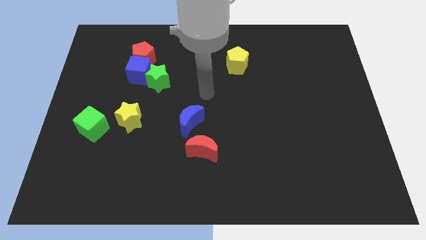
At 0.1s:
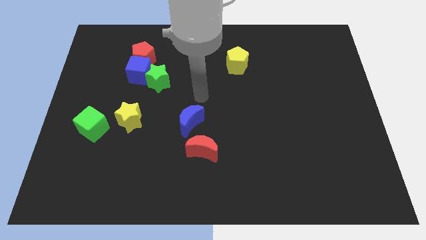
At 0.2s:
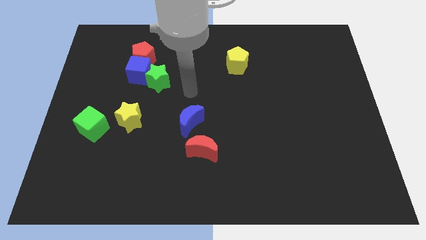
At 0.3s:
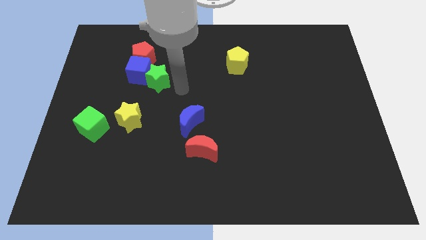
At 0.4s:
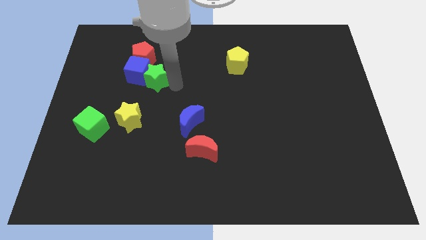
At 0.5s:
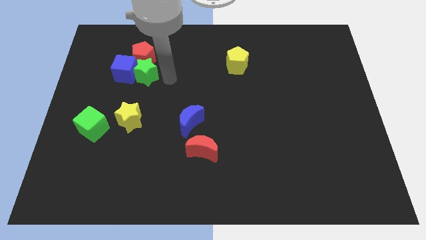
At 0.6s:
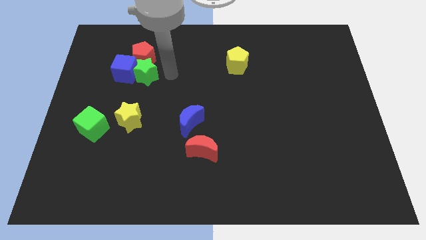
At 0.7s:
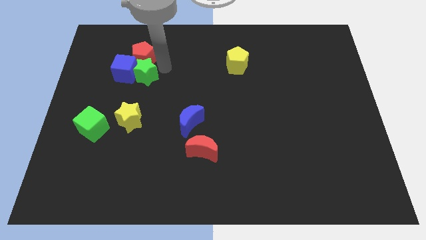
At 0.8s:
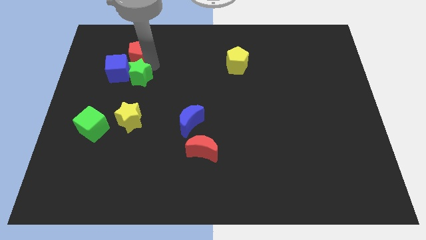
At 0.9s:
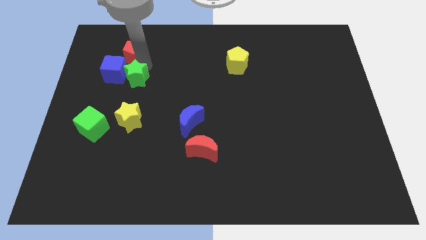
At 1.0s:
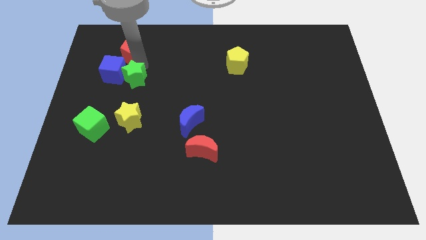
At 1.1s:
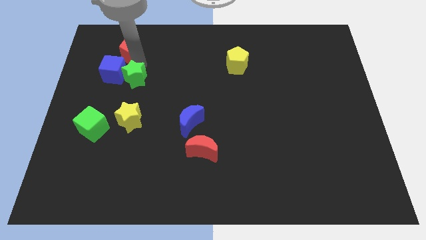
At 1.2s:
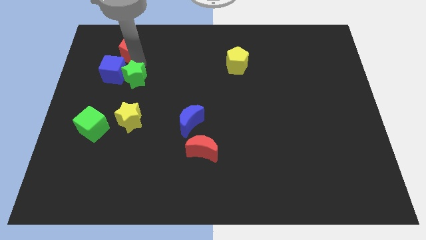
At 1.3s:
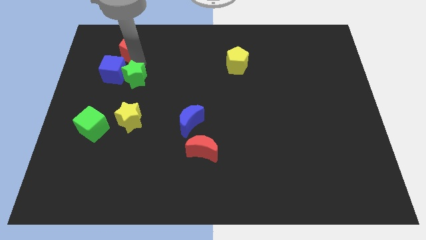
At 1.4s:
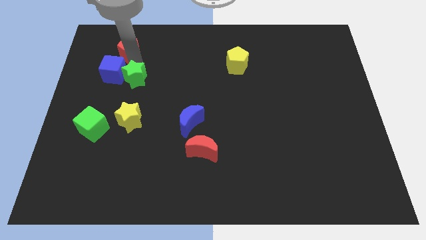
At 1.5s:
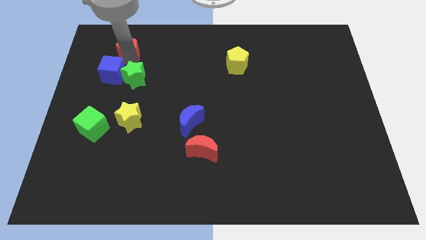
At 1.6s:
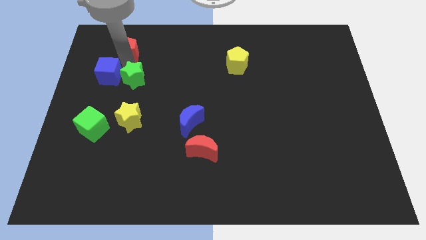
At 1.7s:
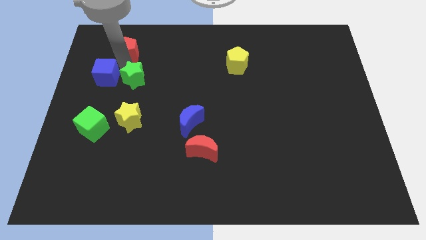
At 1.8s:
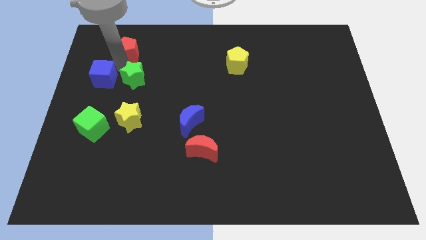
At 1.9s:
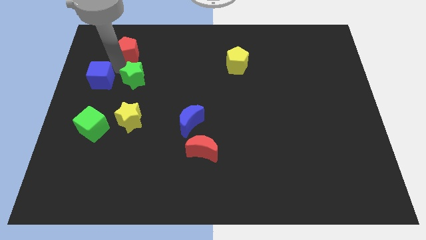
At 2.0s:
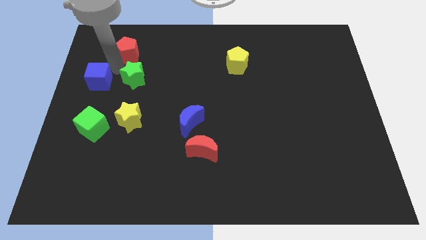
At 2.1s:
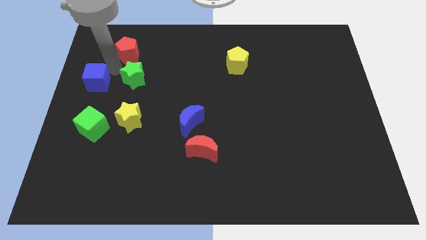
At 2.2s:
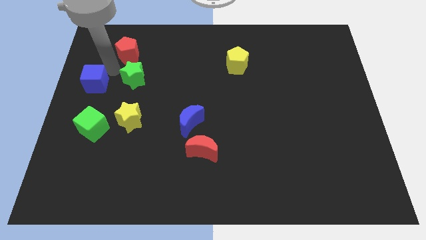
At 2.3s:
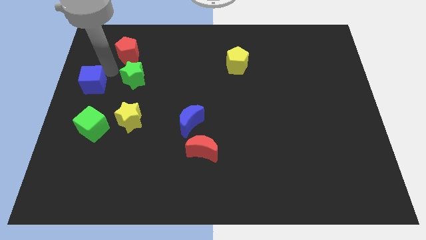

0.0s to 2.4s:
separate the blue cube from the red pentagon and green star

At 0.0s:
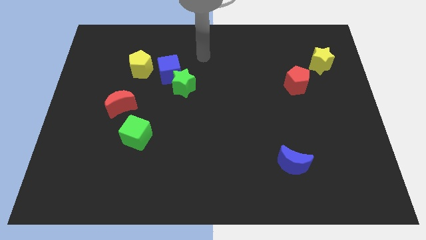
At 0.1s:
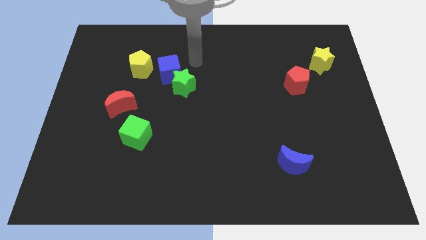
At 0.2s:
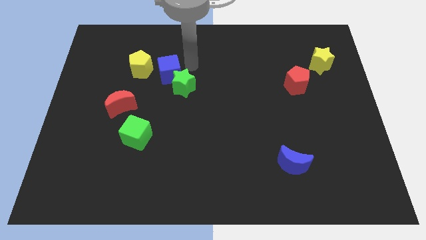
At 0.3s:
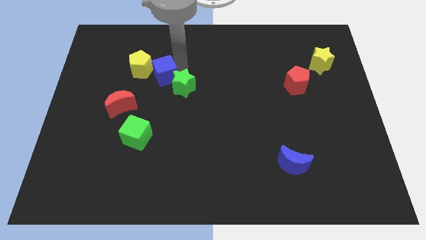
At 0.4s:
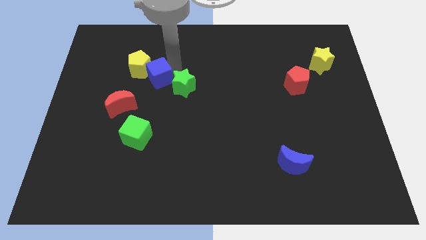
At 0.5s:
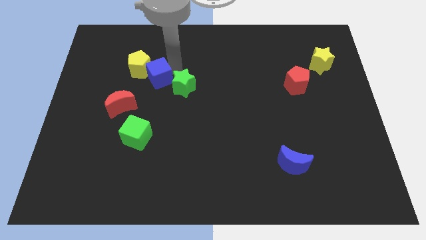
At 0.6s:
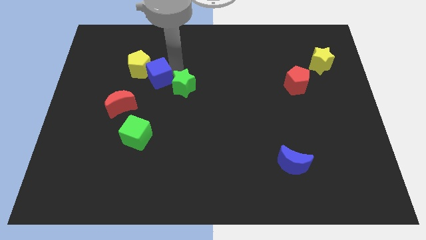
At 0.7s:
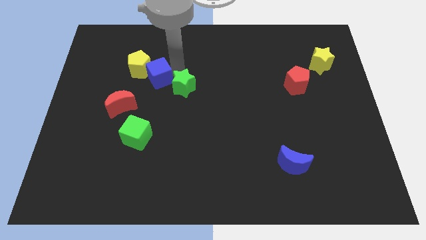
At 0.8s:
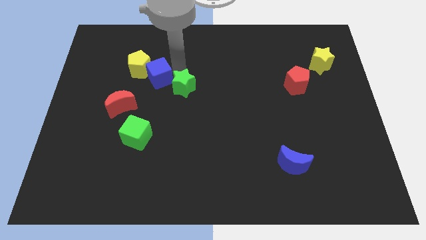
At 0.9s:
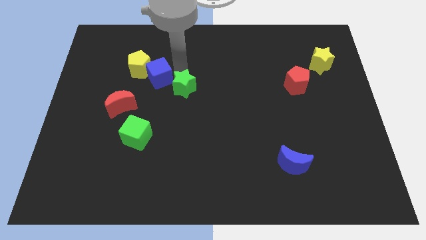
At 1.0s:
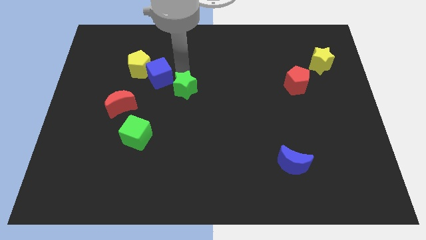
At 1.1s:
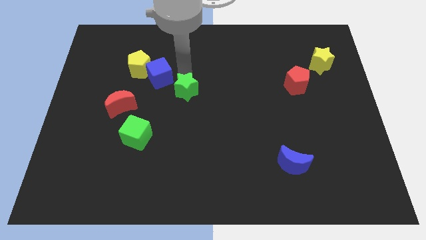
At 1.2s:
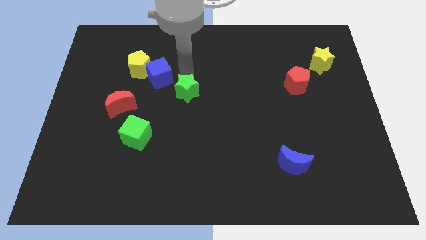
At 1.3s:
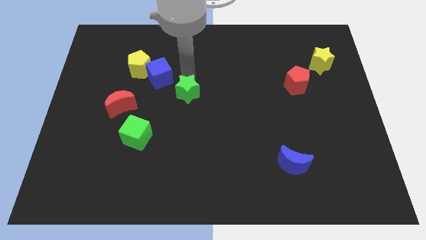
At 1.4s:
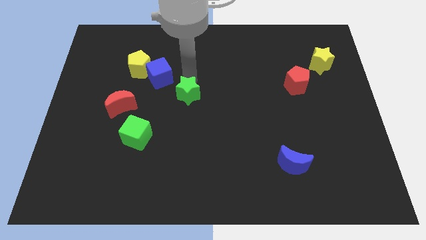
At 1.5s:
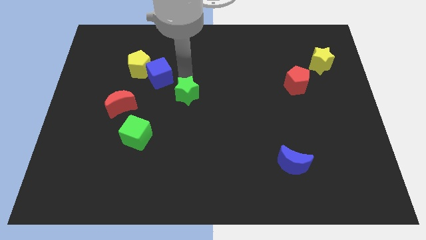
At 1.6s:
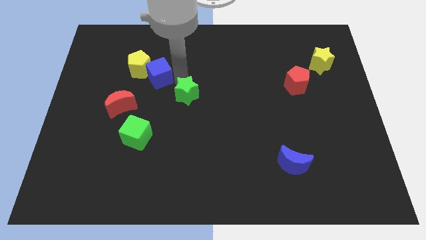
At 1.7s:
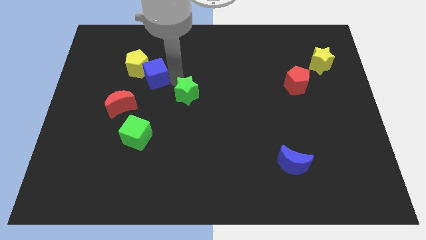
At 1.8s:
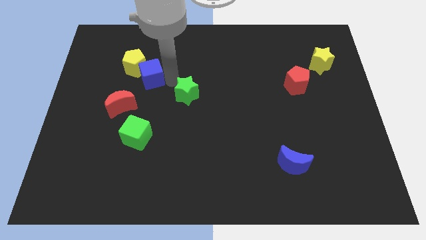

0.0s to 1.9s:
separate the green star from the blue cube

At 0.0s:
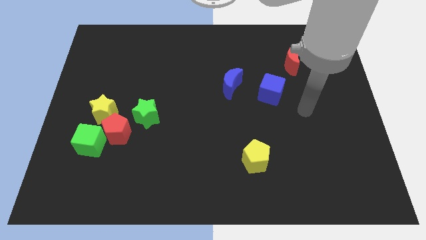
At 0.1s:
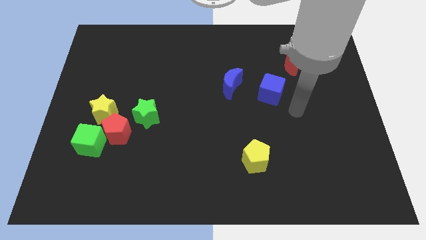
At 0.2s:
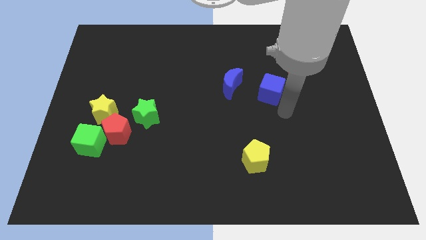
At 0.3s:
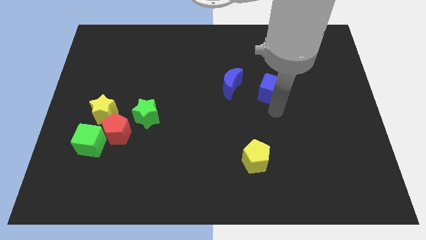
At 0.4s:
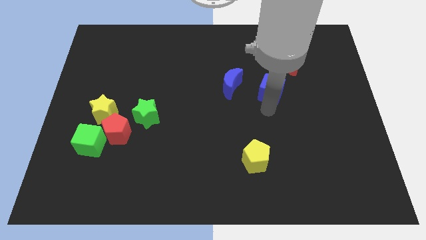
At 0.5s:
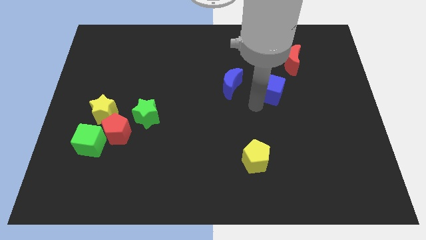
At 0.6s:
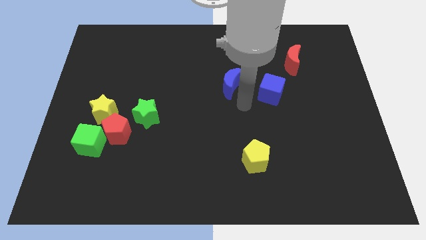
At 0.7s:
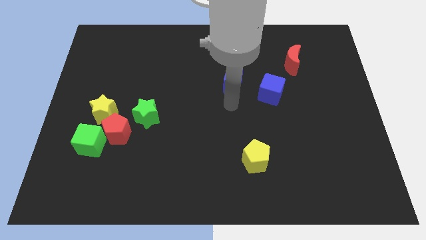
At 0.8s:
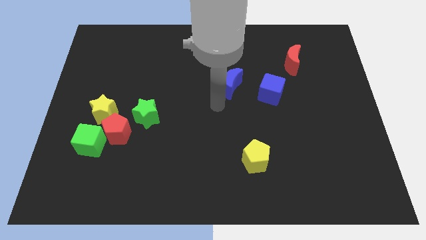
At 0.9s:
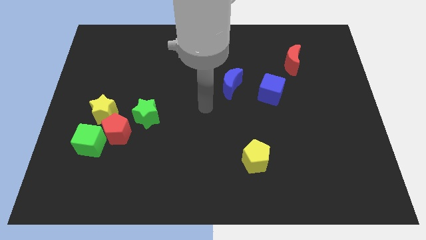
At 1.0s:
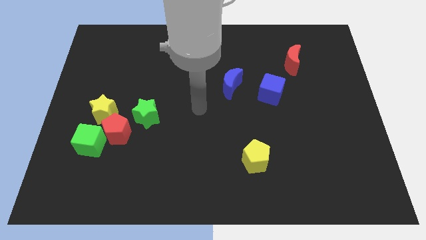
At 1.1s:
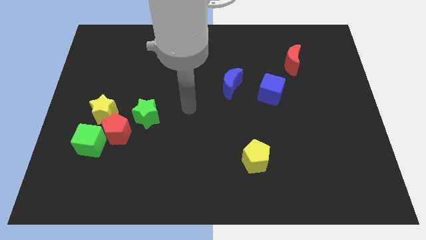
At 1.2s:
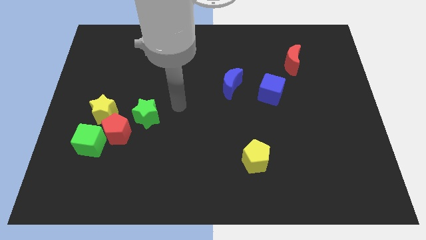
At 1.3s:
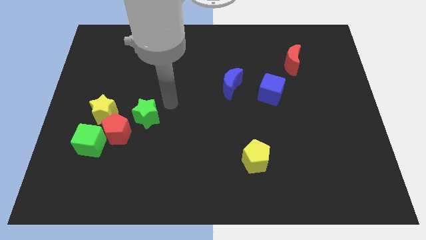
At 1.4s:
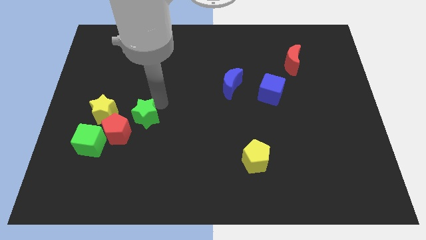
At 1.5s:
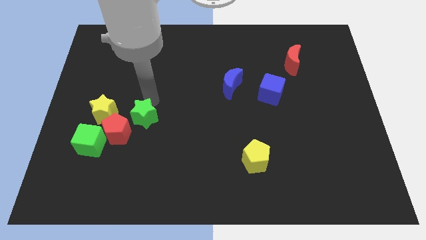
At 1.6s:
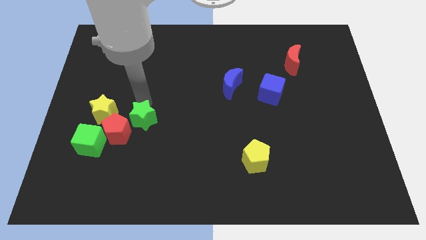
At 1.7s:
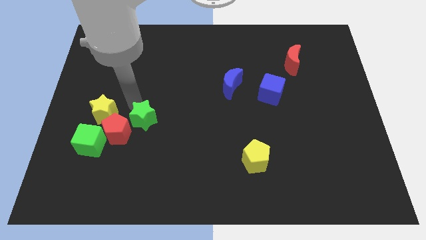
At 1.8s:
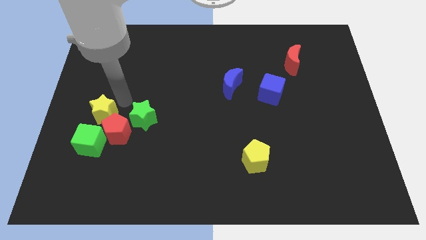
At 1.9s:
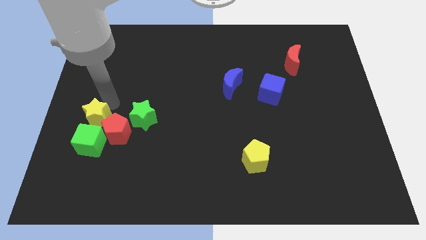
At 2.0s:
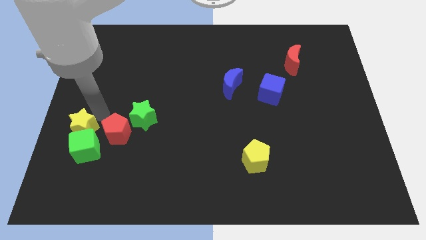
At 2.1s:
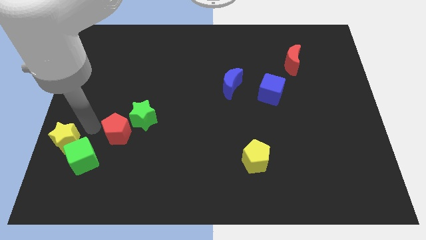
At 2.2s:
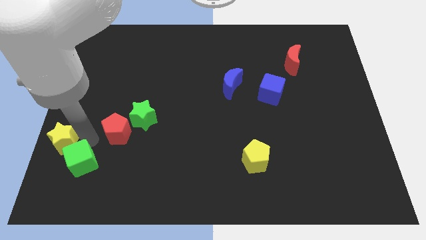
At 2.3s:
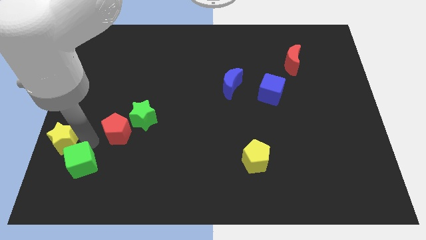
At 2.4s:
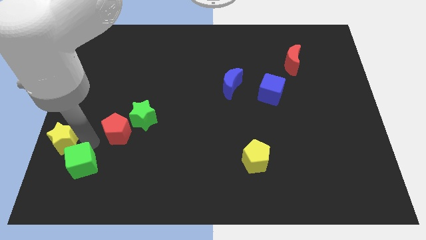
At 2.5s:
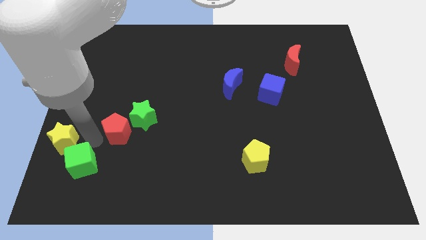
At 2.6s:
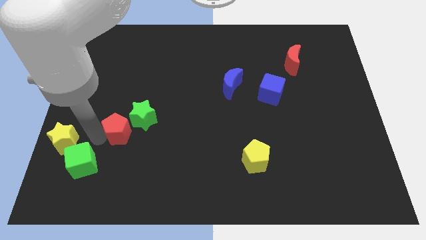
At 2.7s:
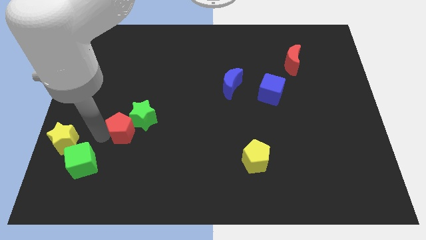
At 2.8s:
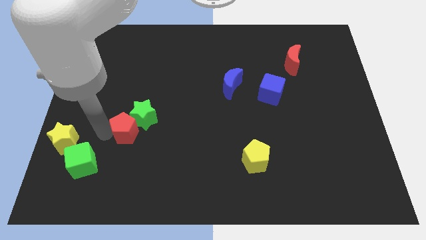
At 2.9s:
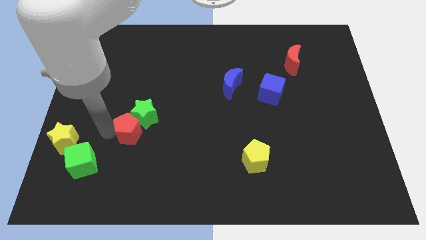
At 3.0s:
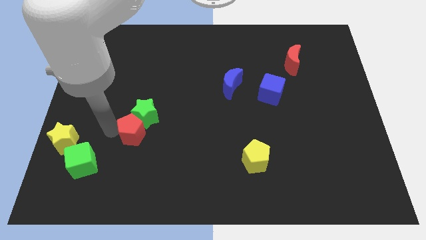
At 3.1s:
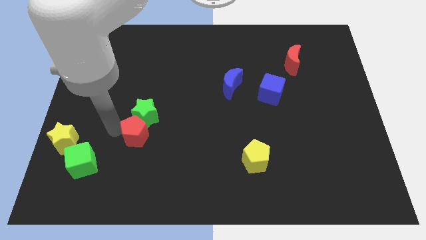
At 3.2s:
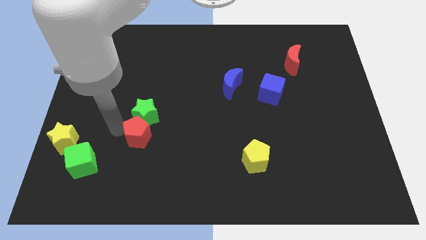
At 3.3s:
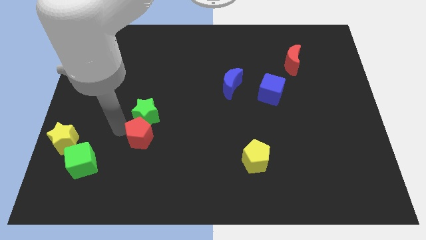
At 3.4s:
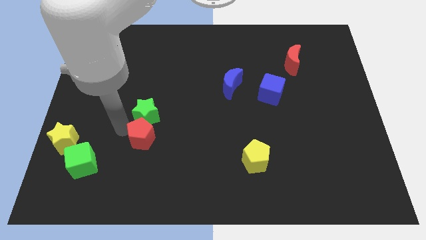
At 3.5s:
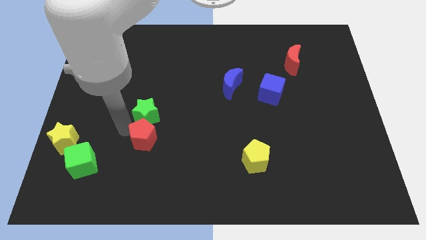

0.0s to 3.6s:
separate the red pentagon from the green cube, yellow star, and green star

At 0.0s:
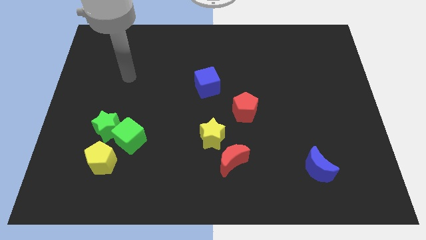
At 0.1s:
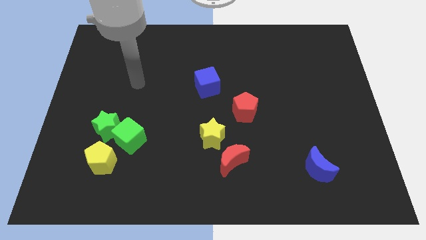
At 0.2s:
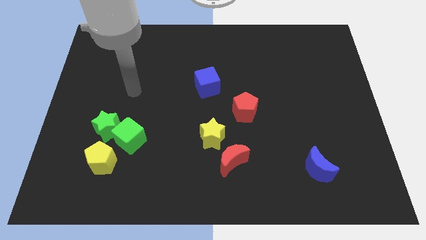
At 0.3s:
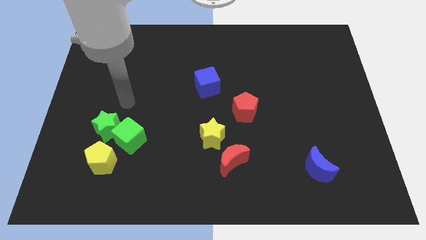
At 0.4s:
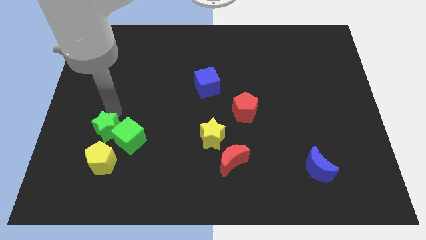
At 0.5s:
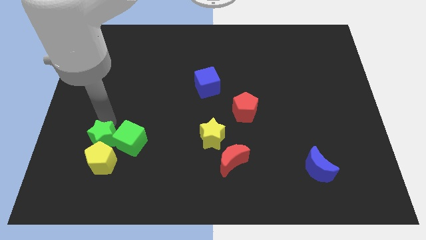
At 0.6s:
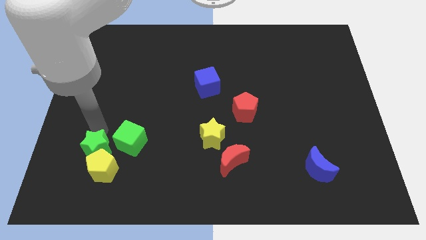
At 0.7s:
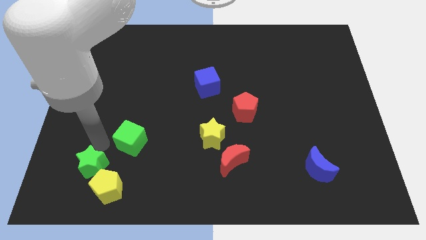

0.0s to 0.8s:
move the green cube away from the green star and yellow pentagon

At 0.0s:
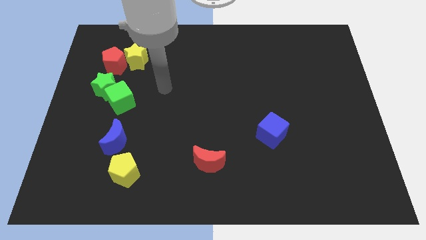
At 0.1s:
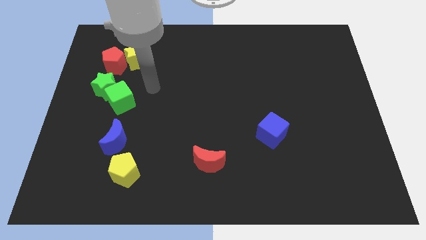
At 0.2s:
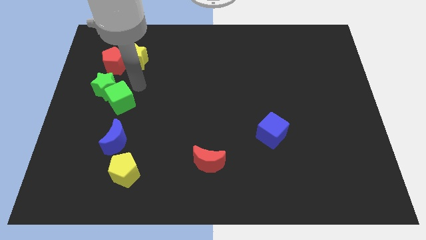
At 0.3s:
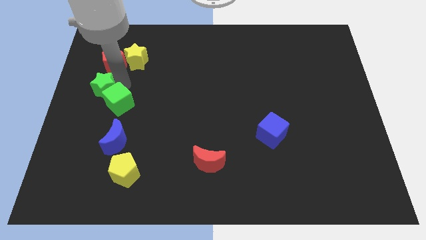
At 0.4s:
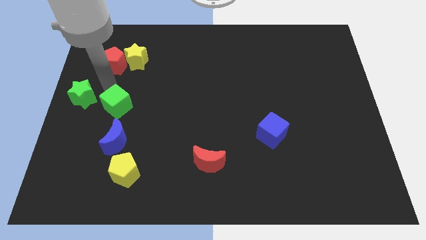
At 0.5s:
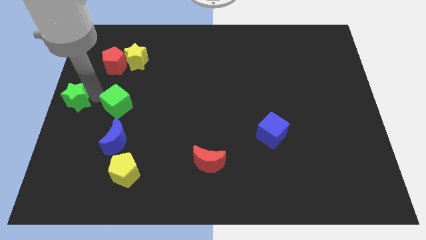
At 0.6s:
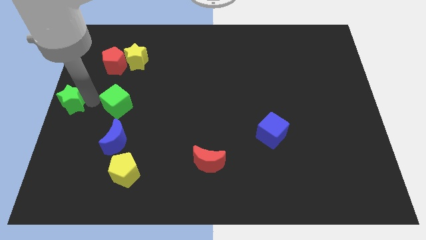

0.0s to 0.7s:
pull the green cube apart from the green star
